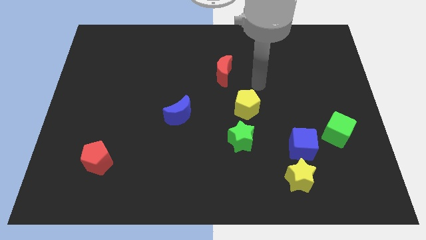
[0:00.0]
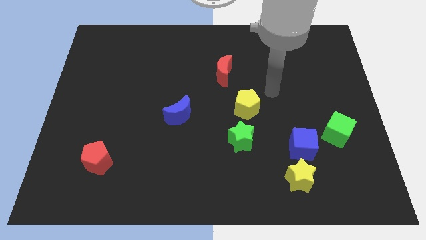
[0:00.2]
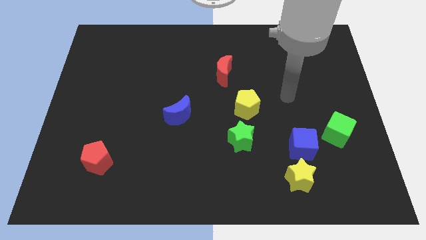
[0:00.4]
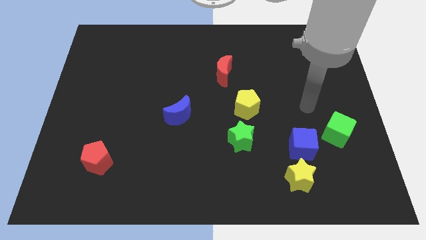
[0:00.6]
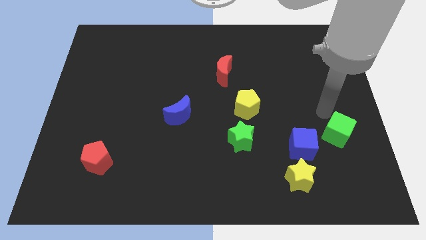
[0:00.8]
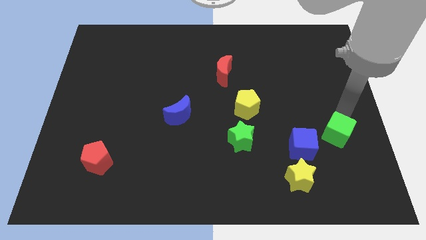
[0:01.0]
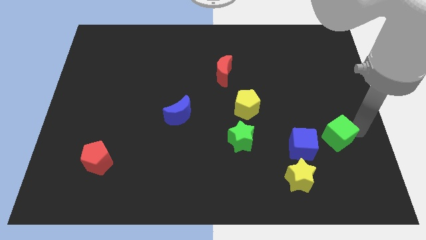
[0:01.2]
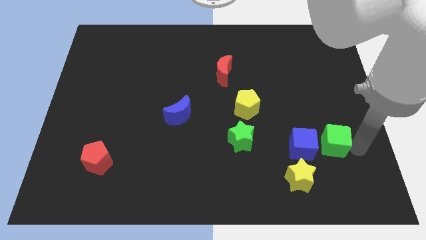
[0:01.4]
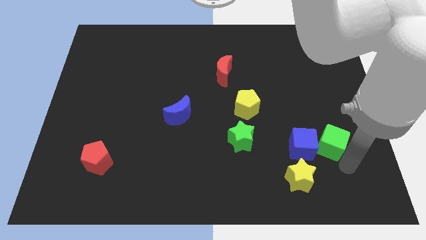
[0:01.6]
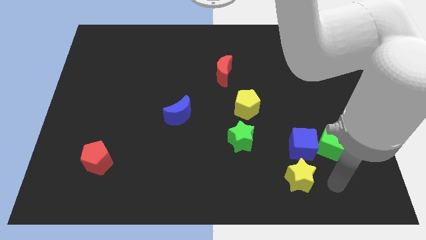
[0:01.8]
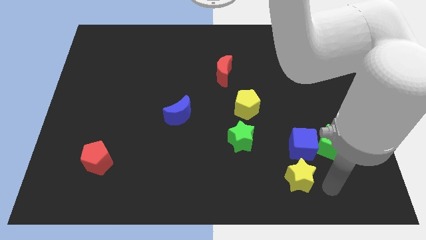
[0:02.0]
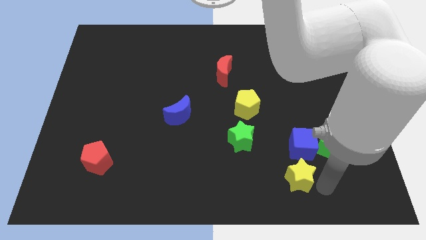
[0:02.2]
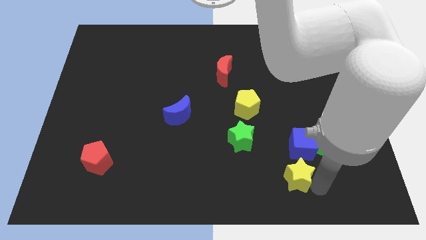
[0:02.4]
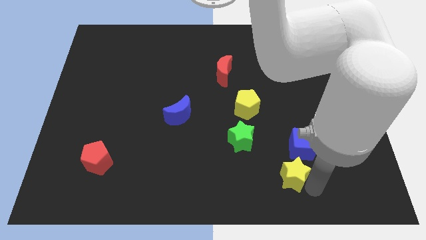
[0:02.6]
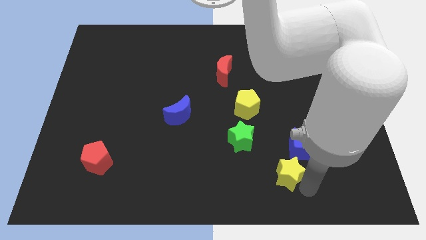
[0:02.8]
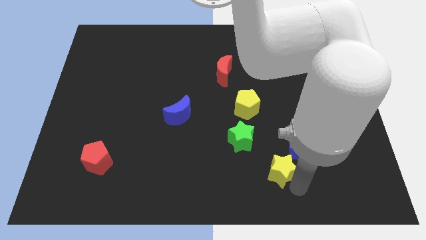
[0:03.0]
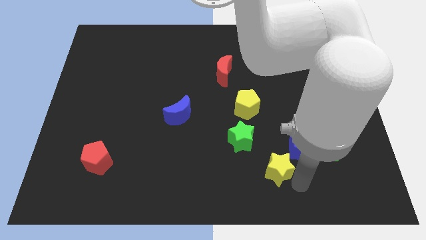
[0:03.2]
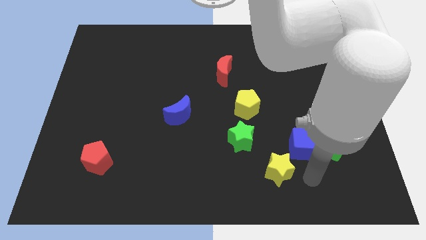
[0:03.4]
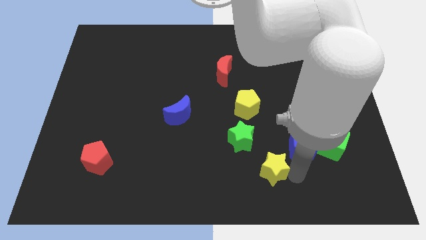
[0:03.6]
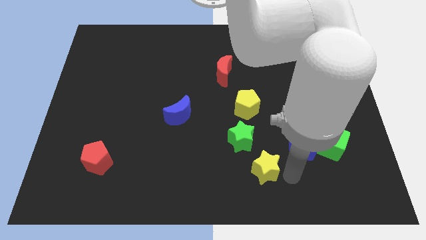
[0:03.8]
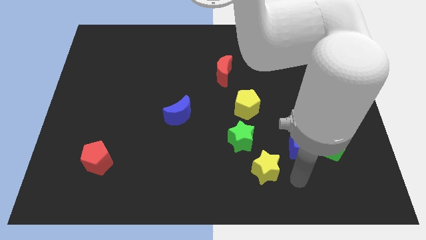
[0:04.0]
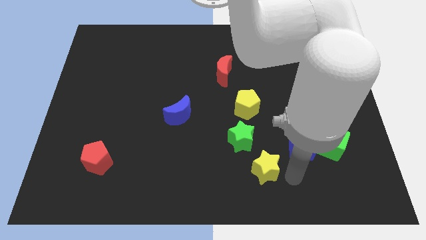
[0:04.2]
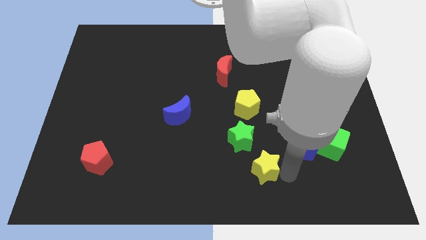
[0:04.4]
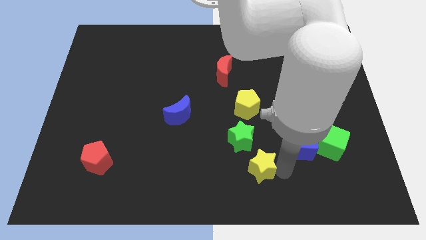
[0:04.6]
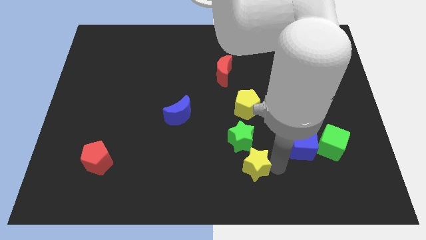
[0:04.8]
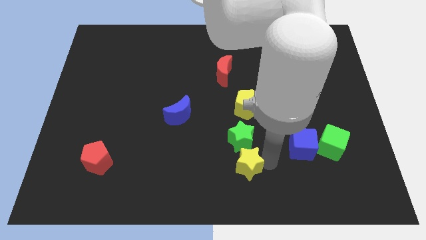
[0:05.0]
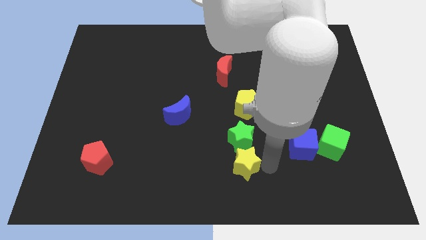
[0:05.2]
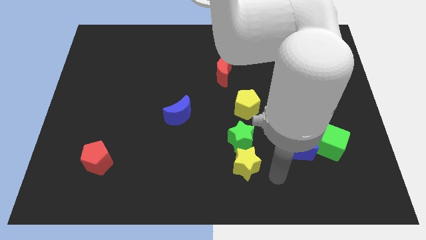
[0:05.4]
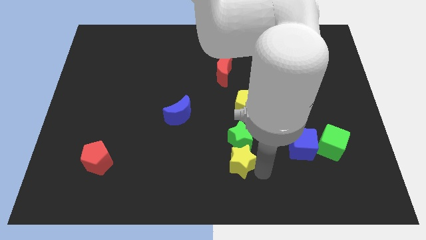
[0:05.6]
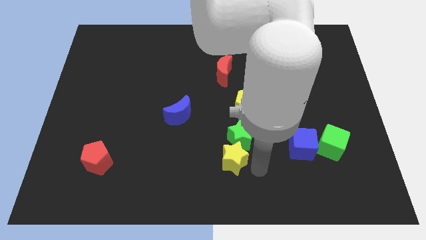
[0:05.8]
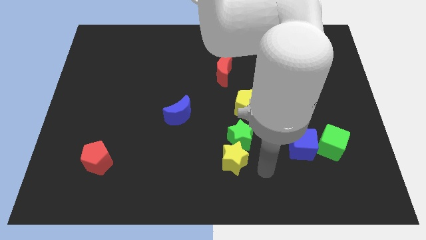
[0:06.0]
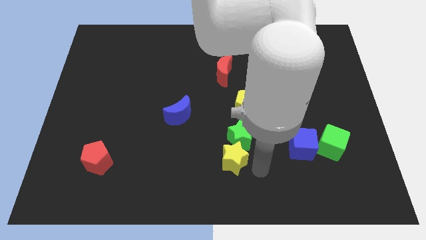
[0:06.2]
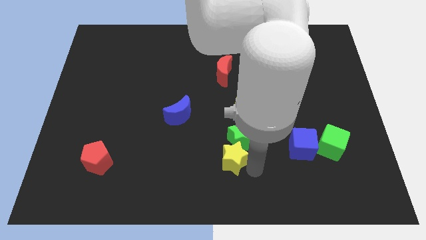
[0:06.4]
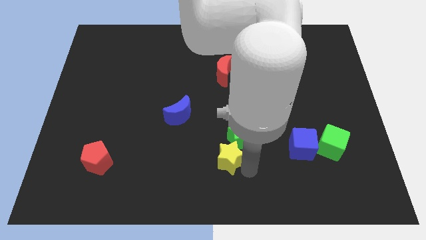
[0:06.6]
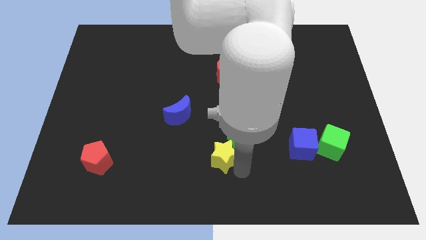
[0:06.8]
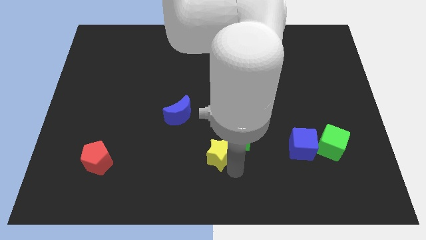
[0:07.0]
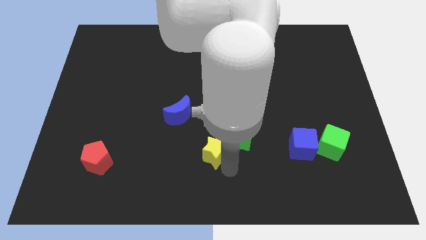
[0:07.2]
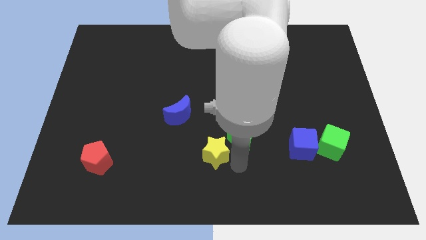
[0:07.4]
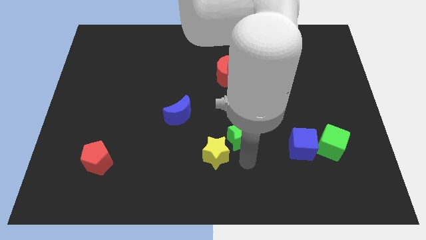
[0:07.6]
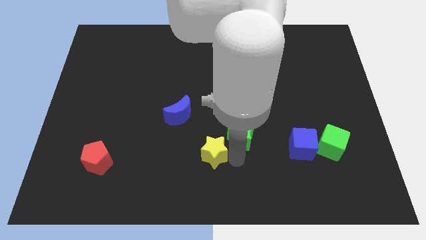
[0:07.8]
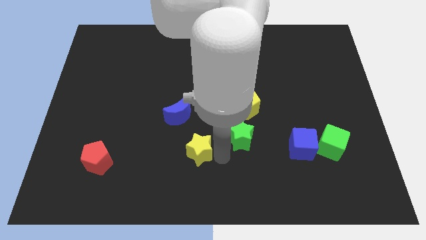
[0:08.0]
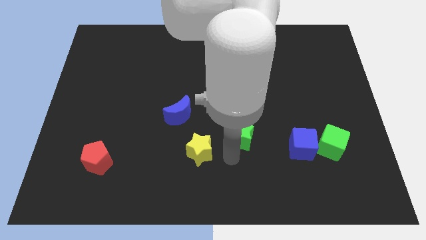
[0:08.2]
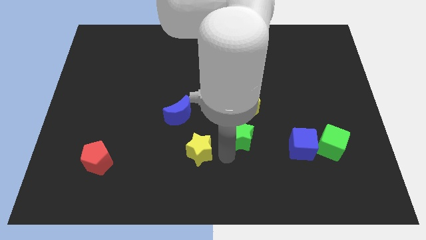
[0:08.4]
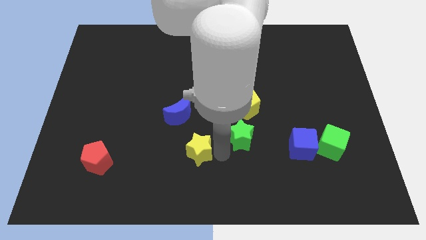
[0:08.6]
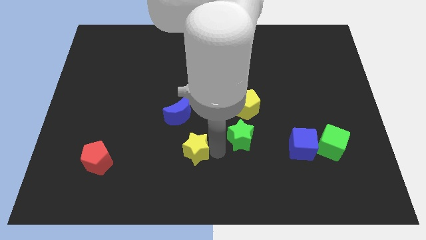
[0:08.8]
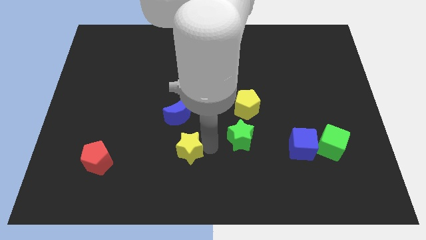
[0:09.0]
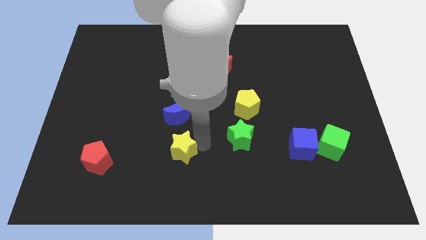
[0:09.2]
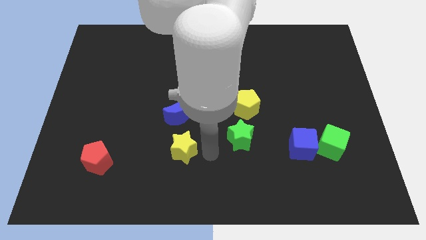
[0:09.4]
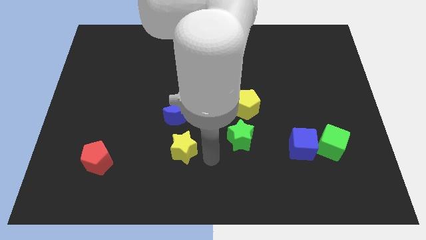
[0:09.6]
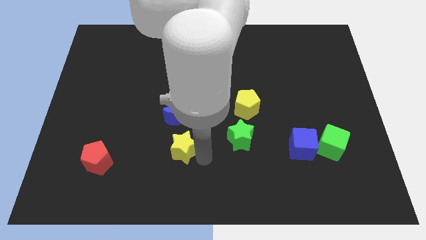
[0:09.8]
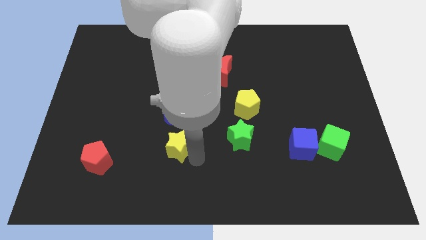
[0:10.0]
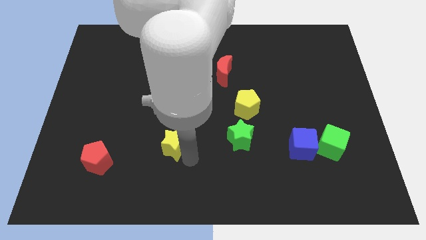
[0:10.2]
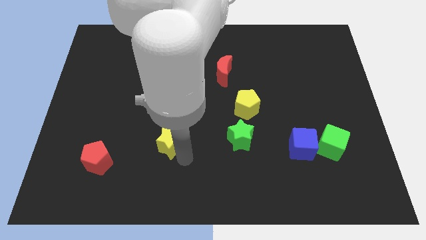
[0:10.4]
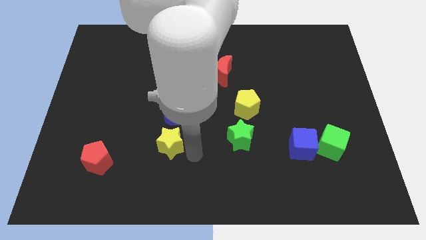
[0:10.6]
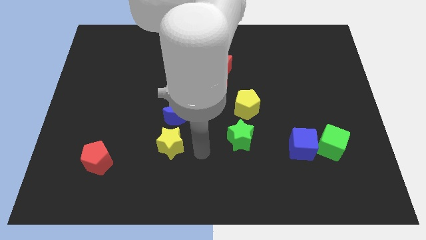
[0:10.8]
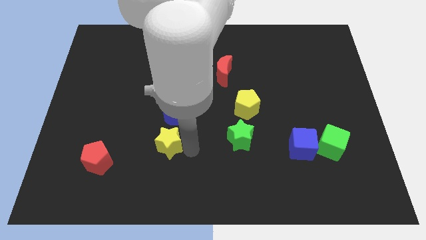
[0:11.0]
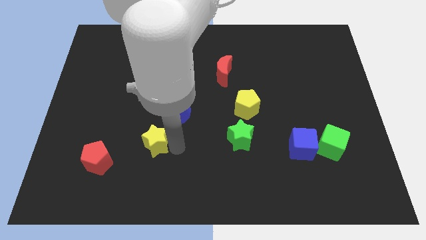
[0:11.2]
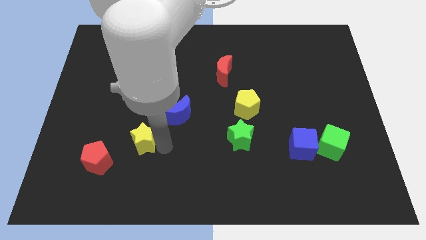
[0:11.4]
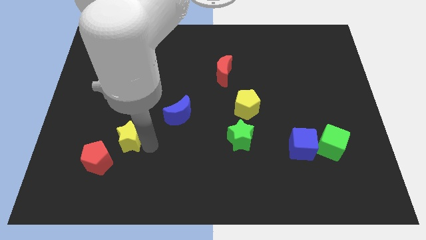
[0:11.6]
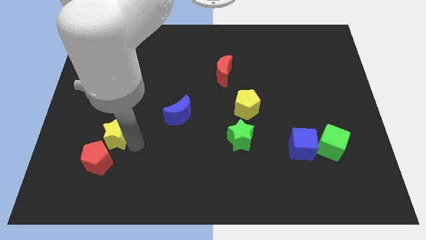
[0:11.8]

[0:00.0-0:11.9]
slide the yellow star to the top side of the red pentagon
